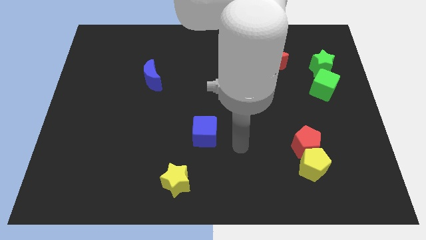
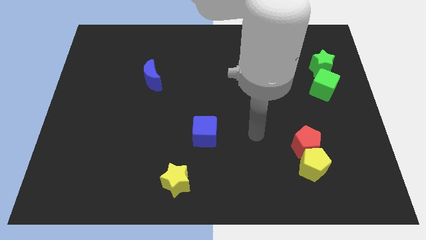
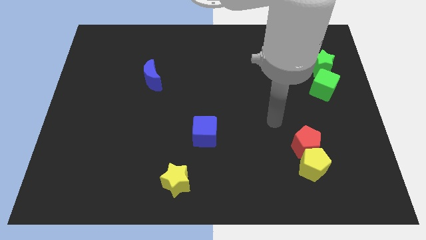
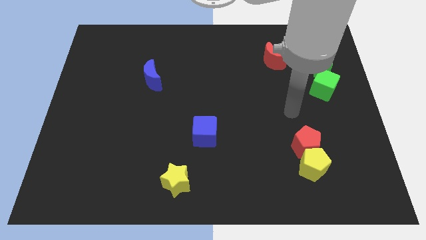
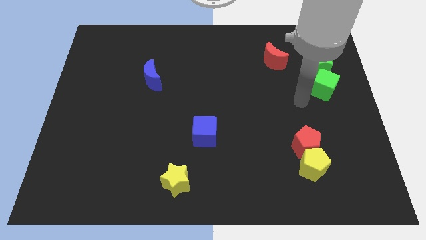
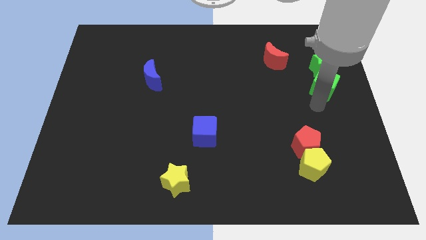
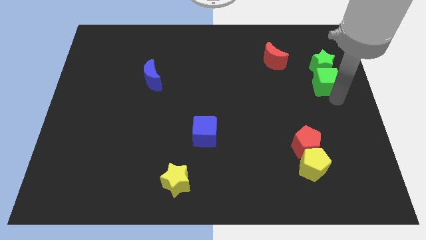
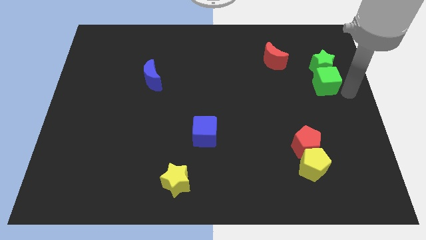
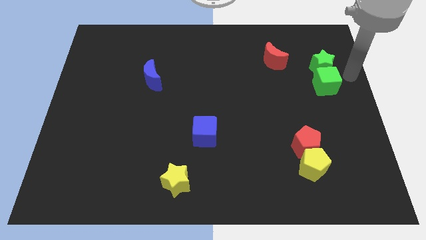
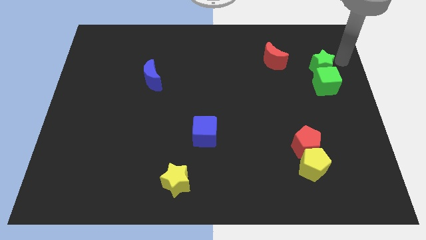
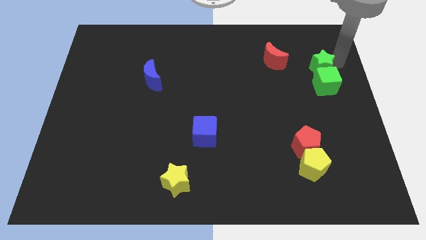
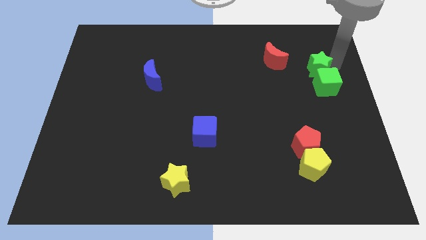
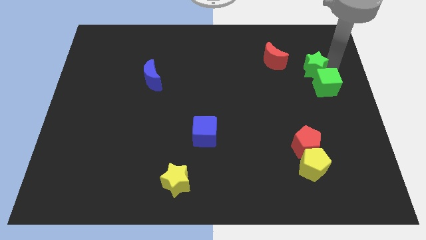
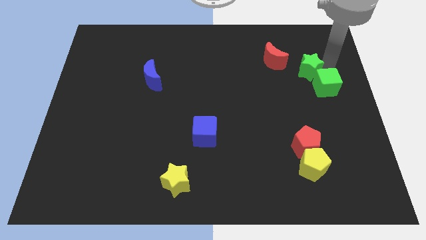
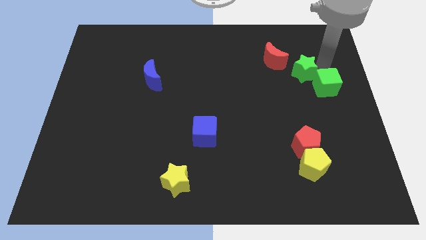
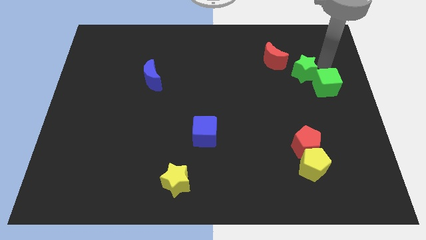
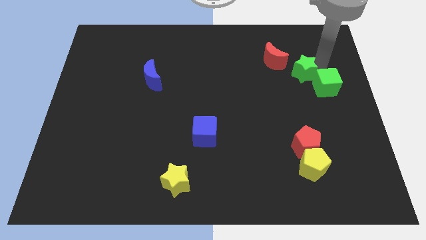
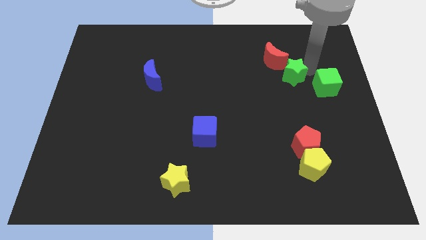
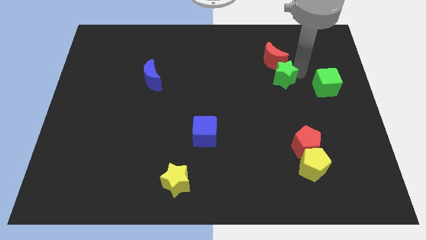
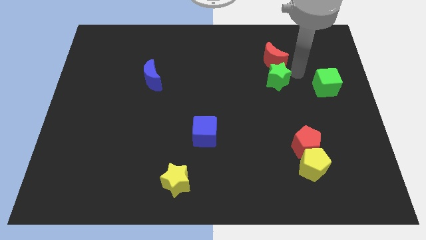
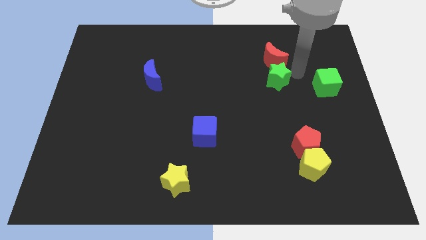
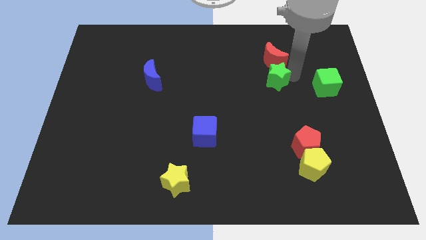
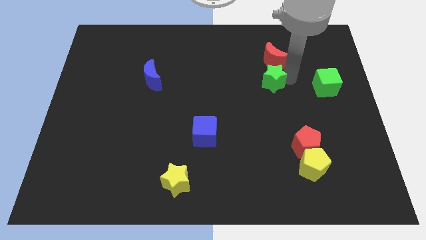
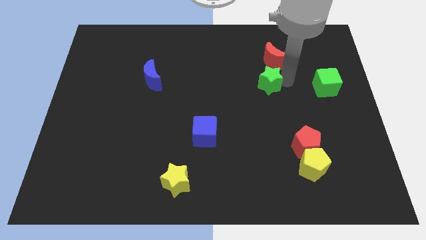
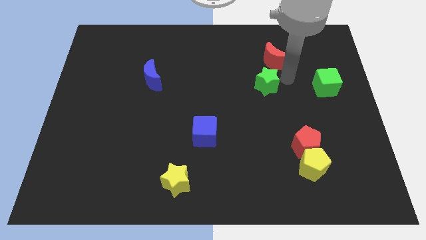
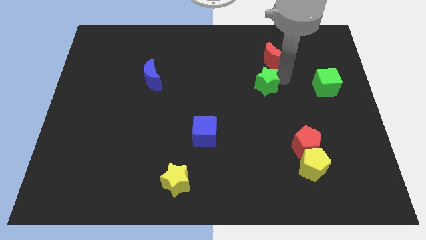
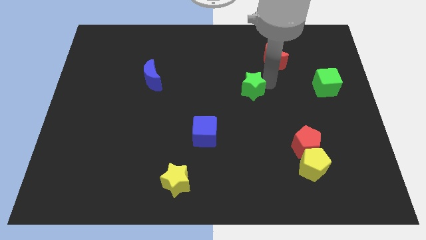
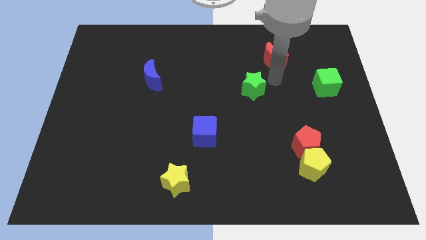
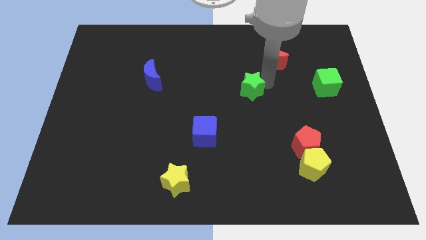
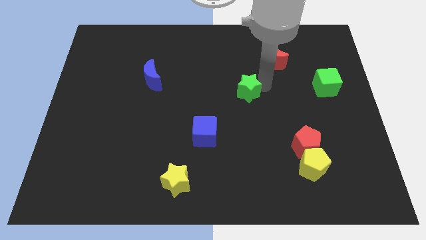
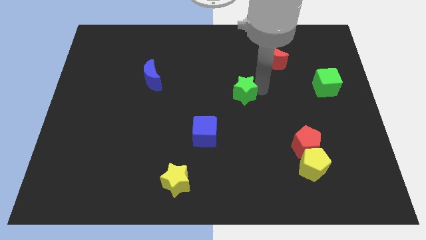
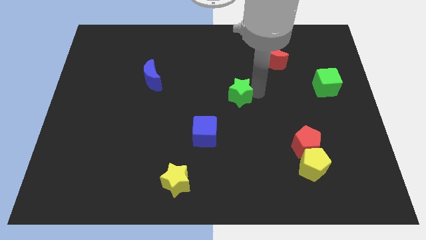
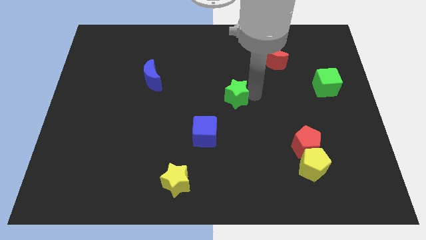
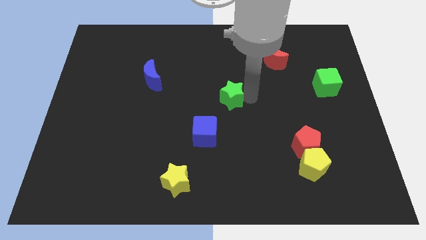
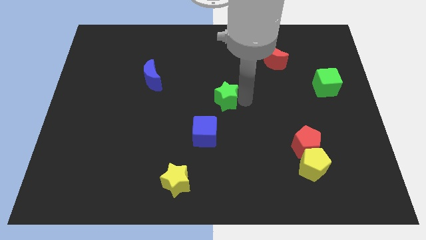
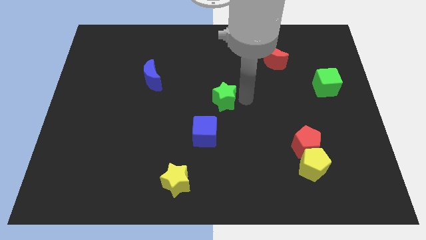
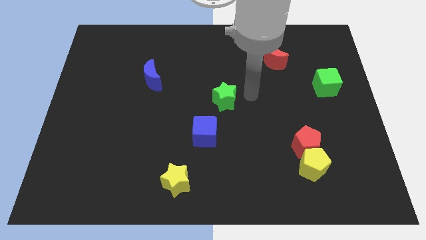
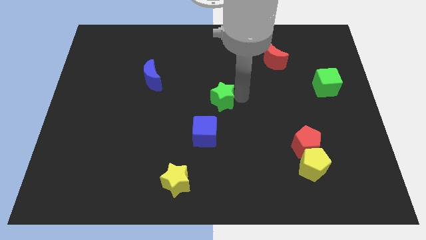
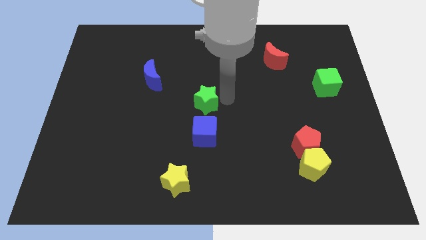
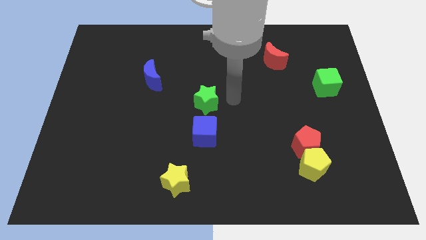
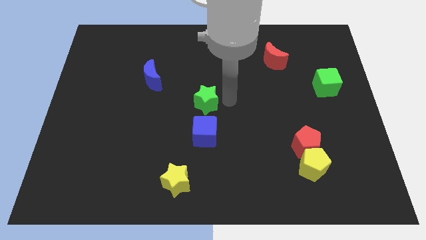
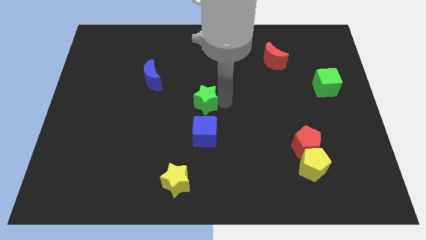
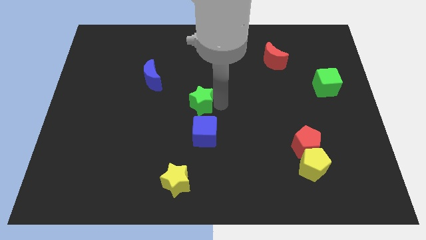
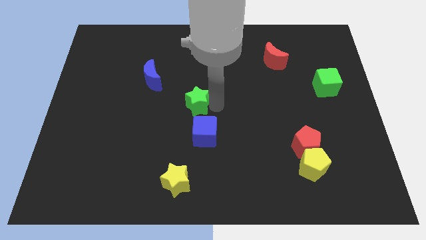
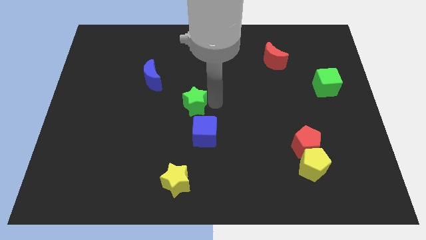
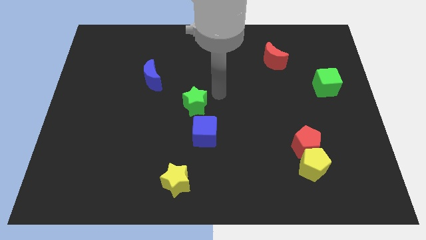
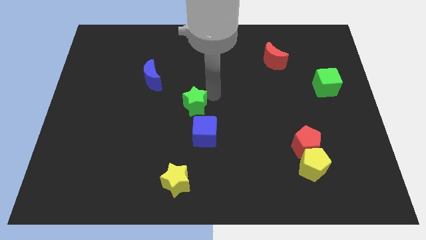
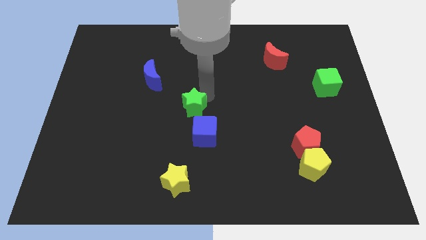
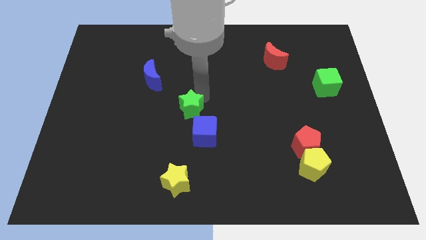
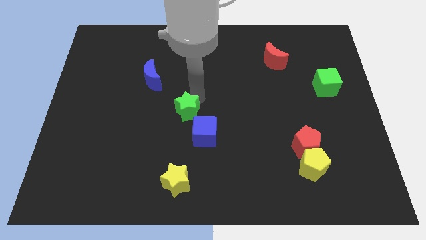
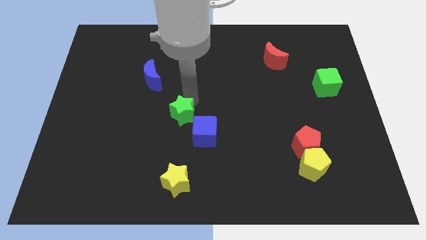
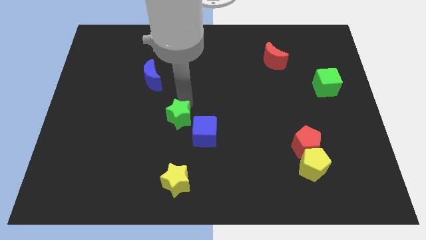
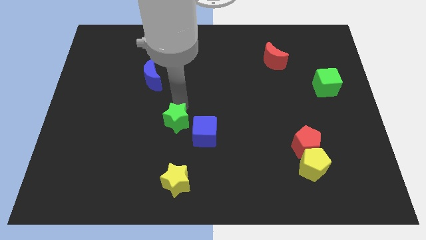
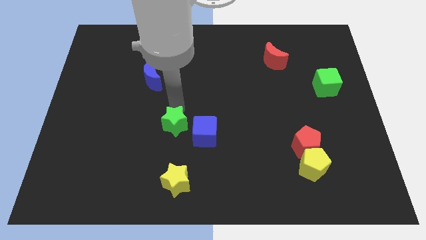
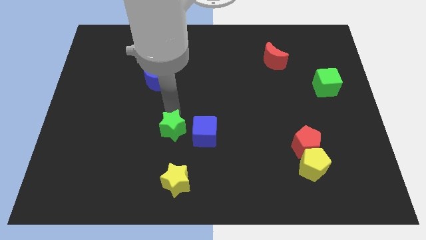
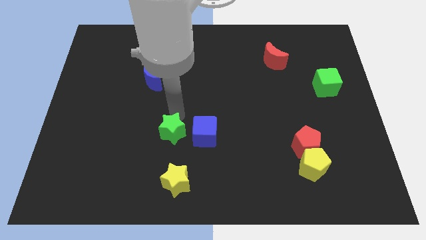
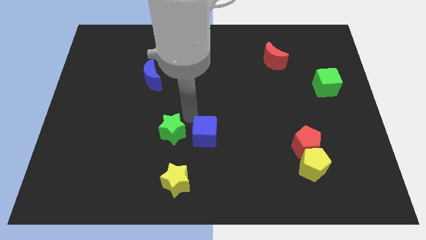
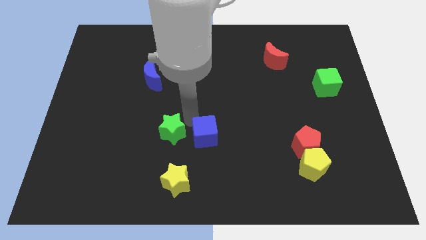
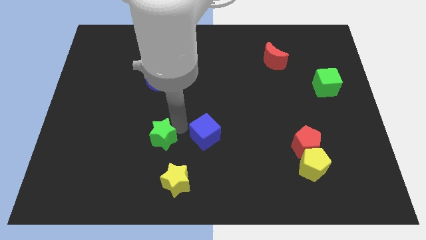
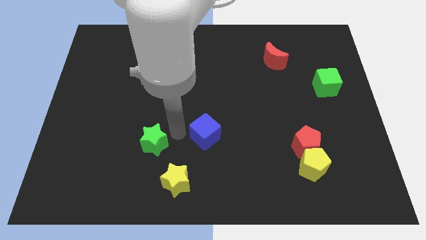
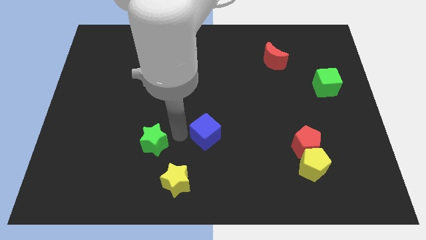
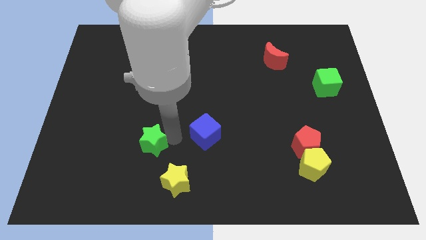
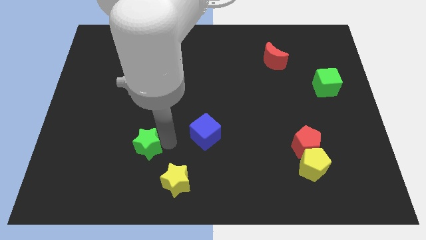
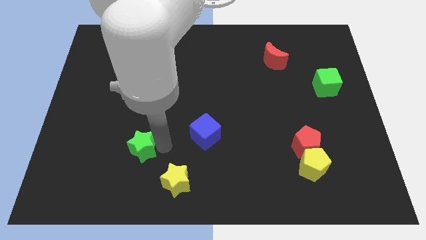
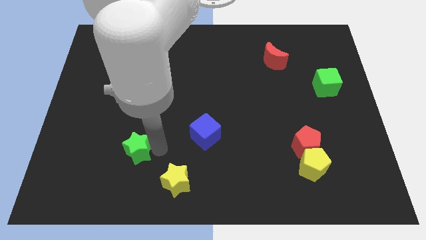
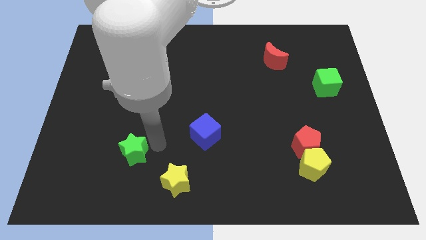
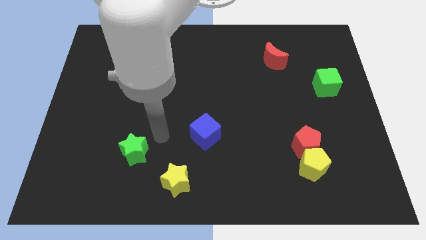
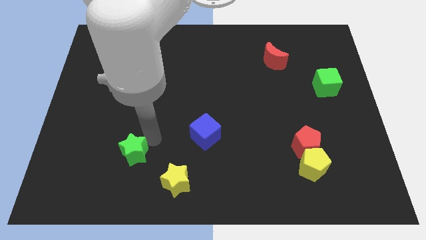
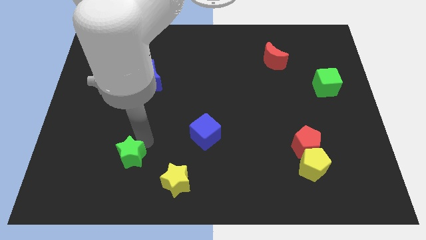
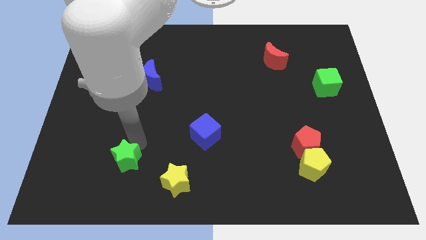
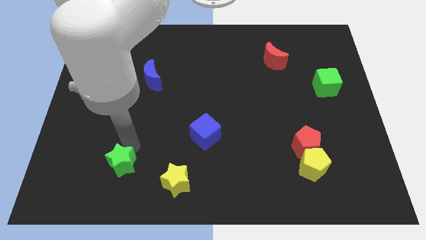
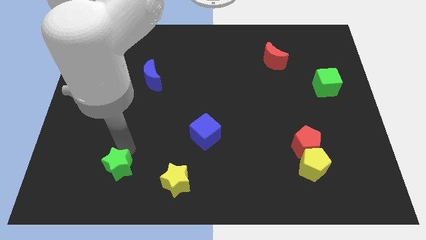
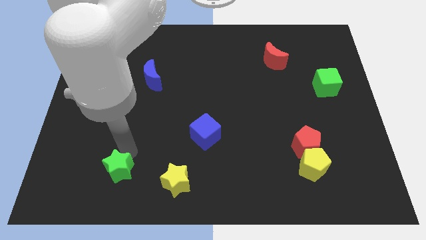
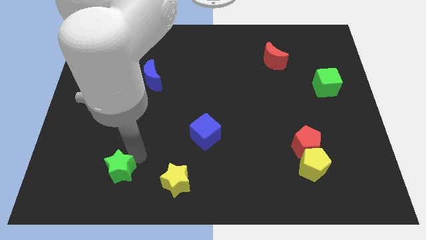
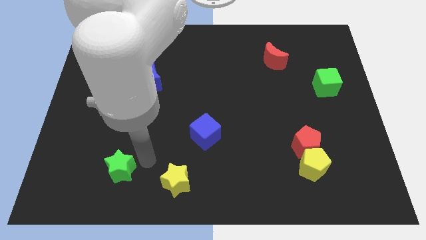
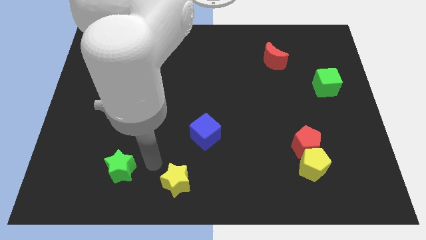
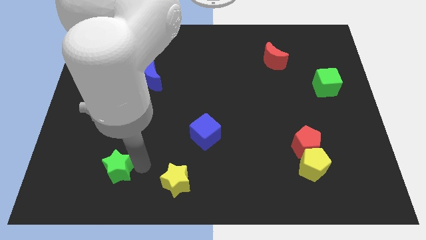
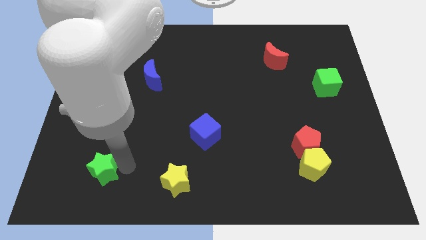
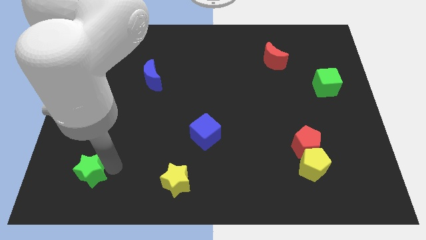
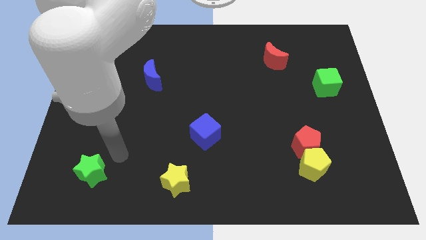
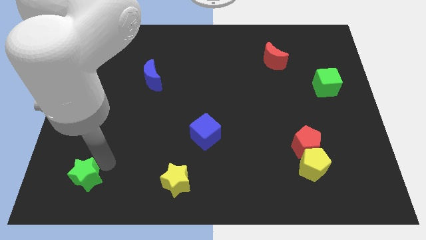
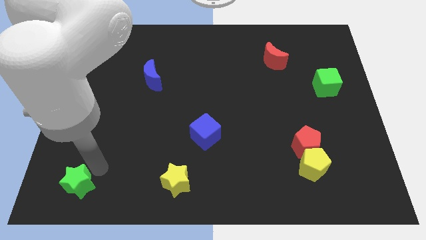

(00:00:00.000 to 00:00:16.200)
put the green star to the bottom left of the board
